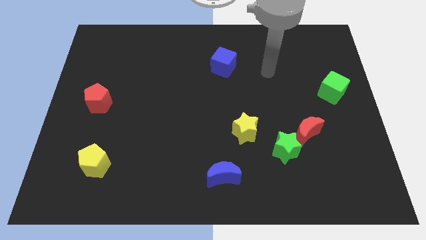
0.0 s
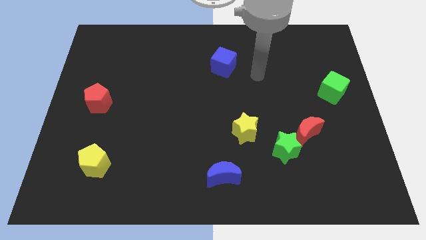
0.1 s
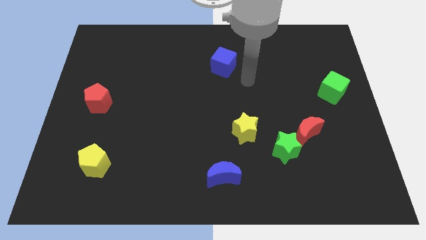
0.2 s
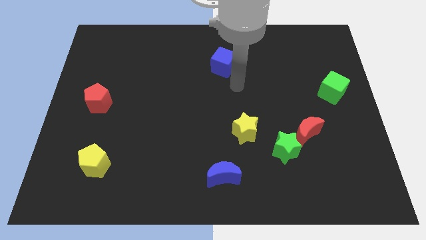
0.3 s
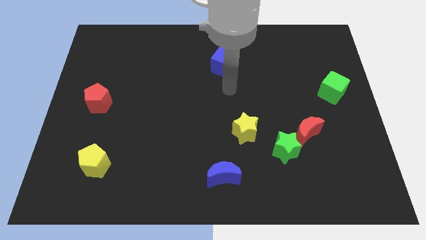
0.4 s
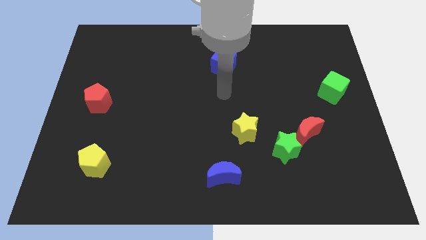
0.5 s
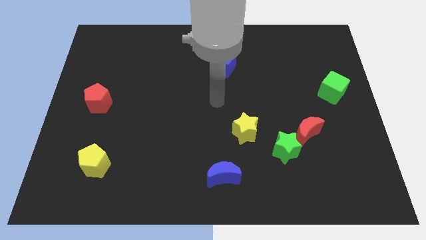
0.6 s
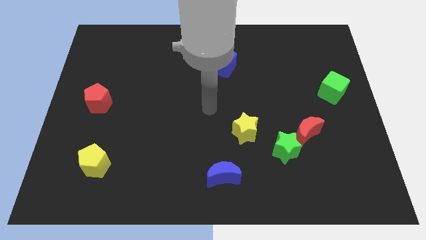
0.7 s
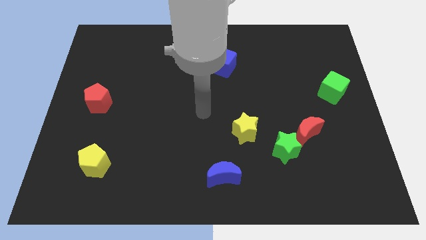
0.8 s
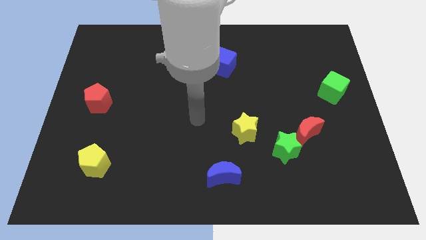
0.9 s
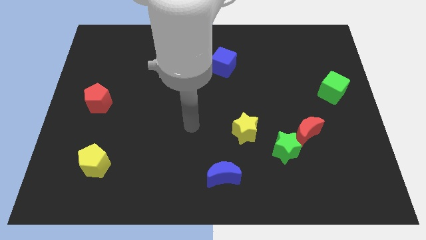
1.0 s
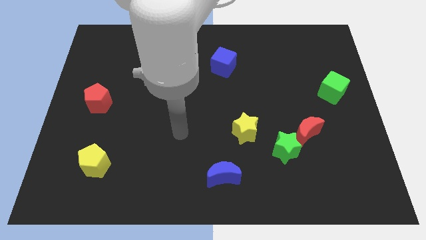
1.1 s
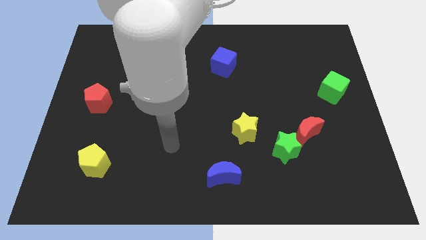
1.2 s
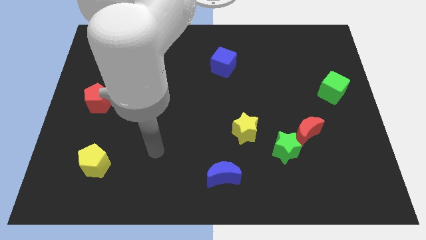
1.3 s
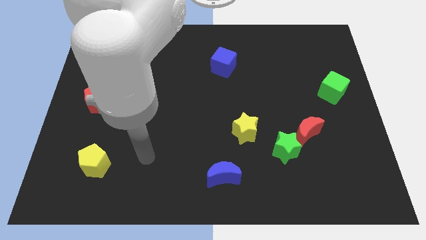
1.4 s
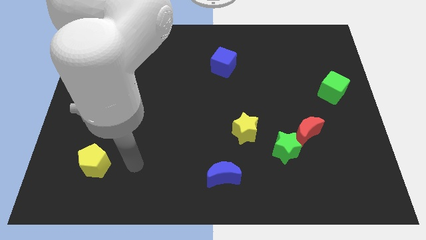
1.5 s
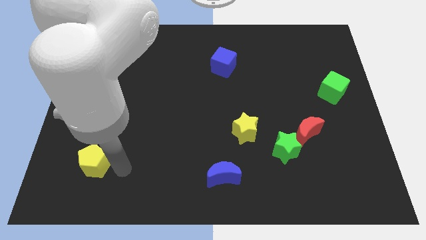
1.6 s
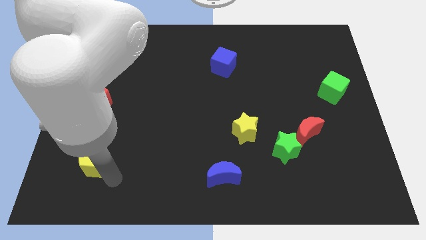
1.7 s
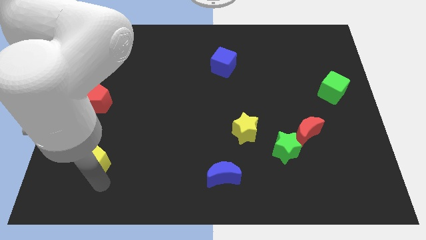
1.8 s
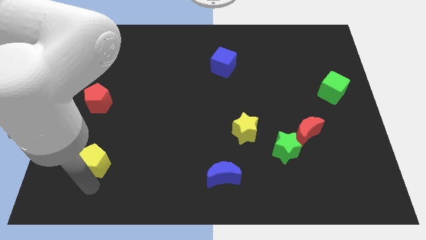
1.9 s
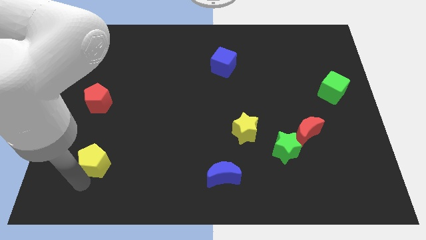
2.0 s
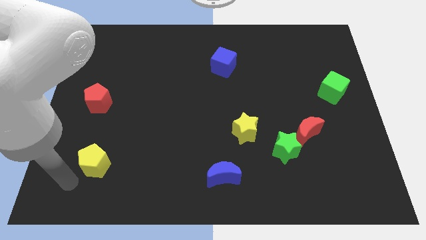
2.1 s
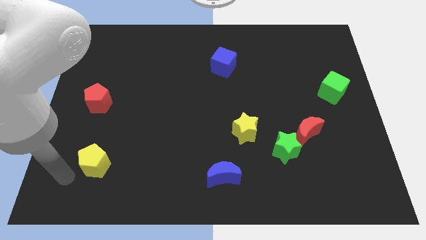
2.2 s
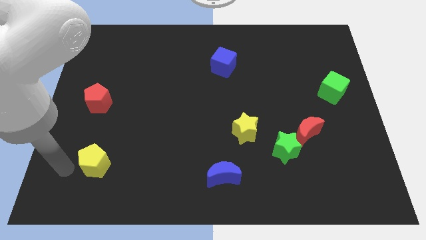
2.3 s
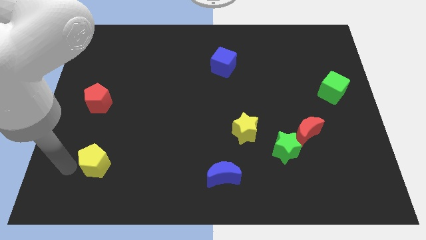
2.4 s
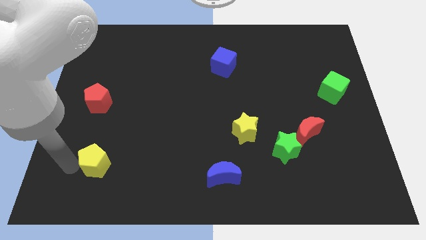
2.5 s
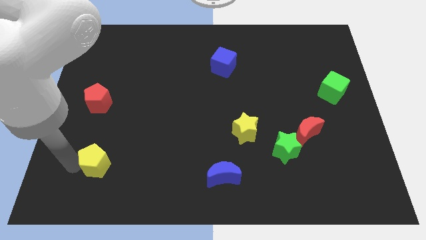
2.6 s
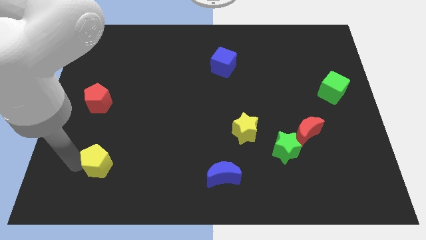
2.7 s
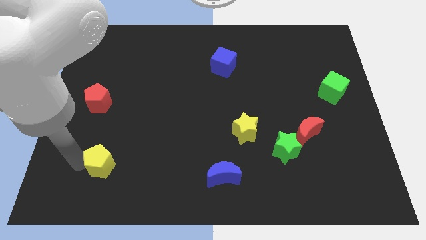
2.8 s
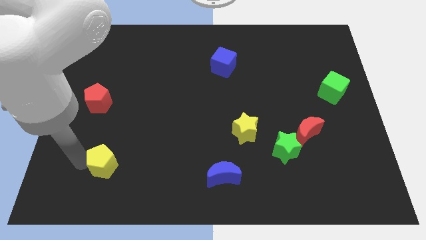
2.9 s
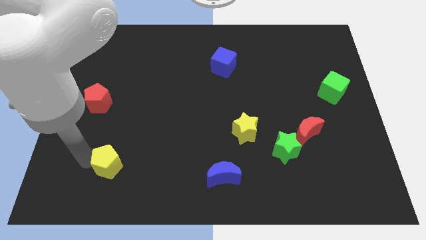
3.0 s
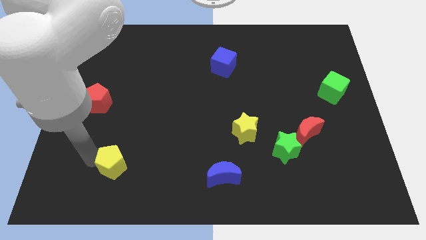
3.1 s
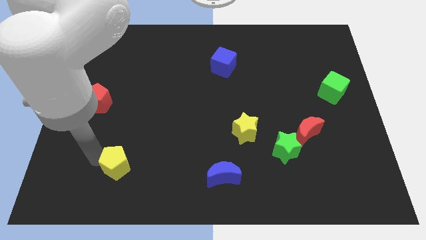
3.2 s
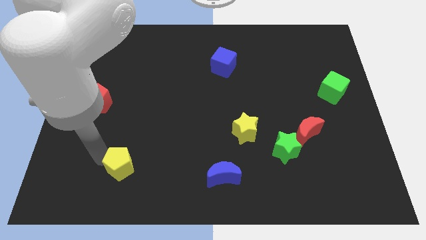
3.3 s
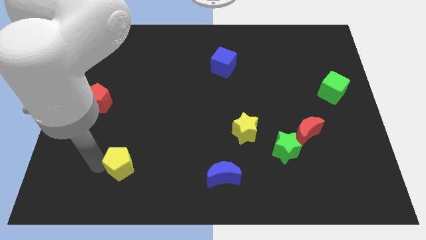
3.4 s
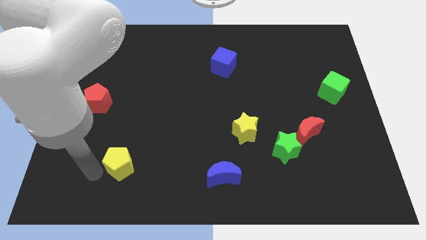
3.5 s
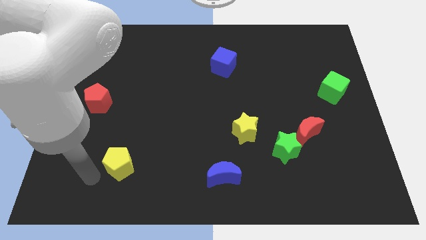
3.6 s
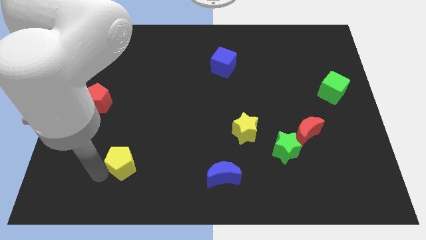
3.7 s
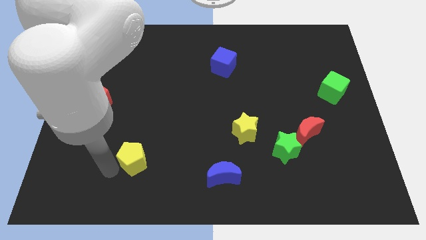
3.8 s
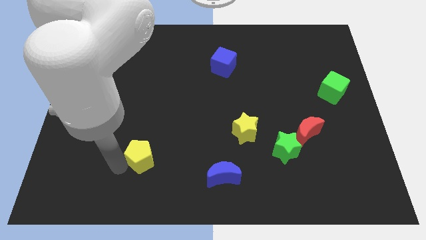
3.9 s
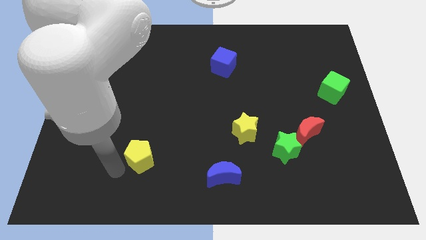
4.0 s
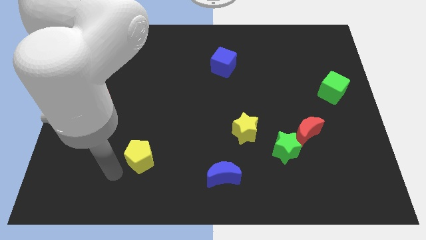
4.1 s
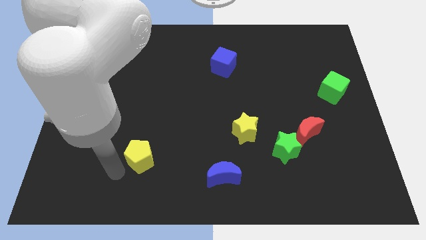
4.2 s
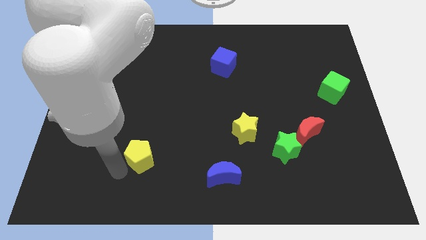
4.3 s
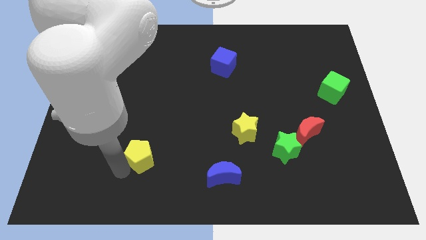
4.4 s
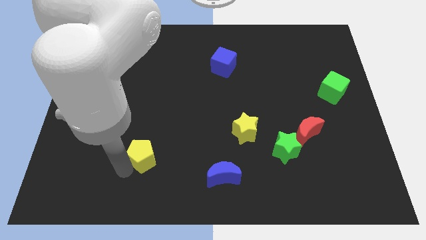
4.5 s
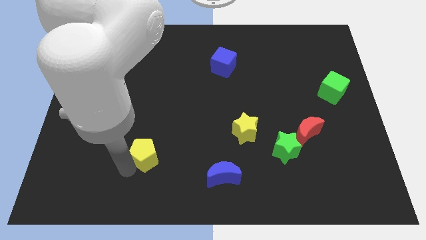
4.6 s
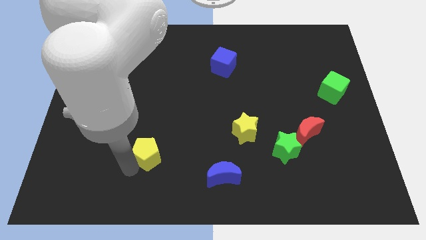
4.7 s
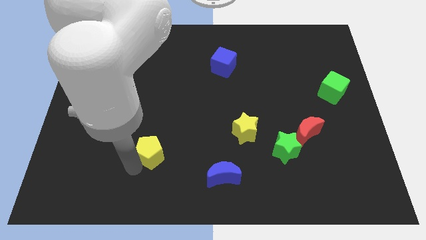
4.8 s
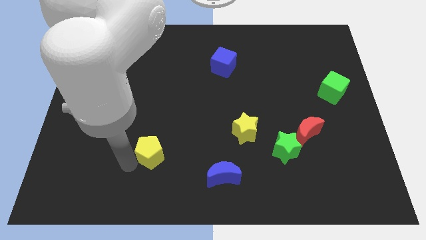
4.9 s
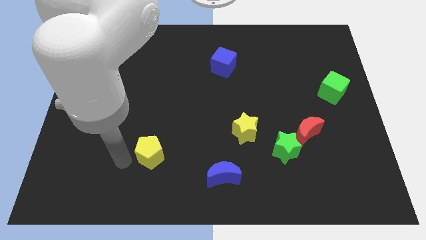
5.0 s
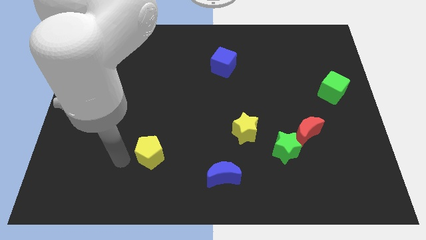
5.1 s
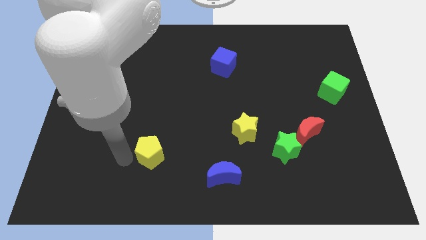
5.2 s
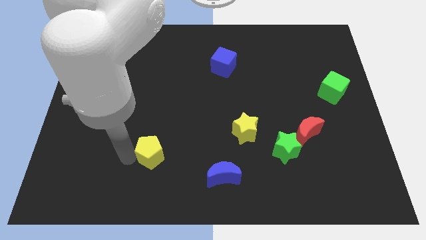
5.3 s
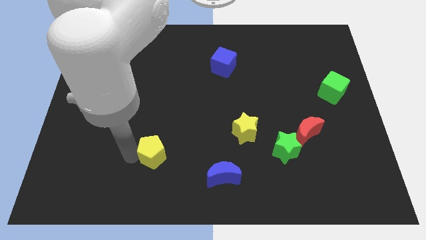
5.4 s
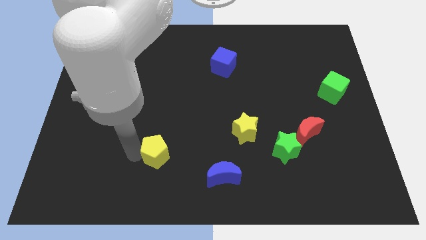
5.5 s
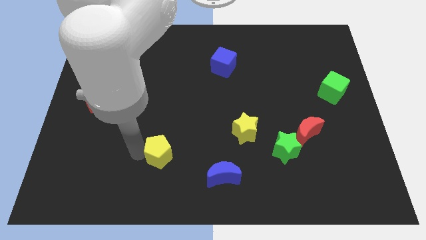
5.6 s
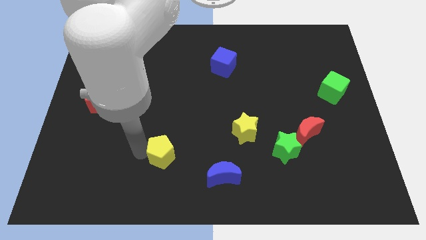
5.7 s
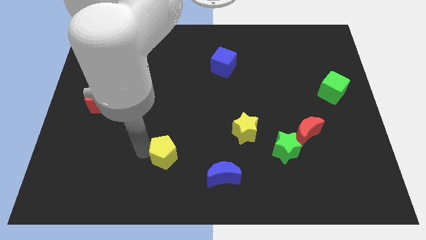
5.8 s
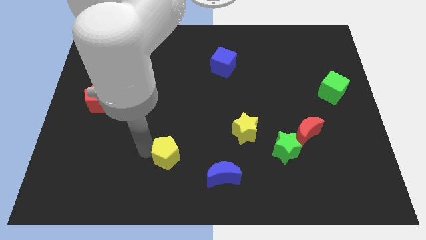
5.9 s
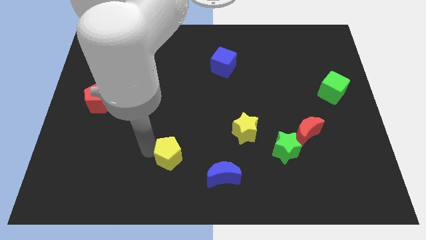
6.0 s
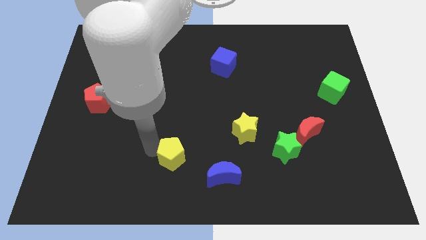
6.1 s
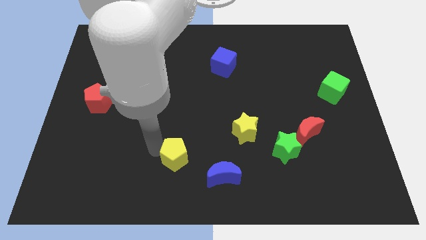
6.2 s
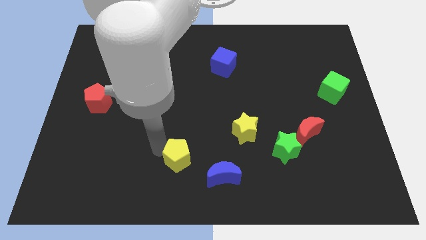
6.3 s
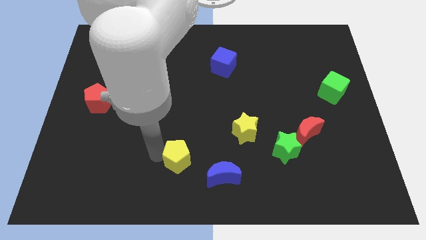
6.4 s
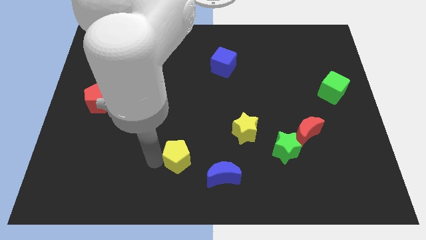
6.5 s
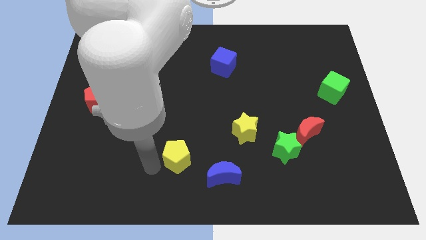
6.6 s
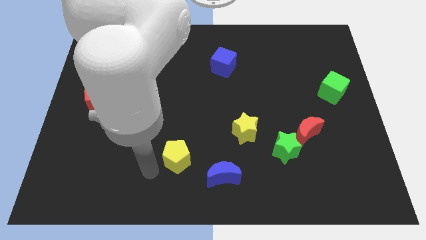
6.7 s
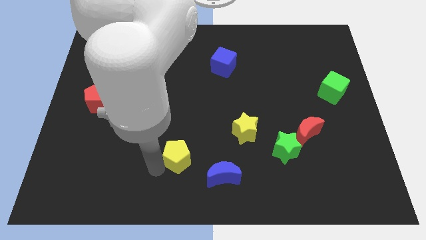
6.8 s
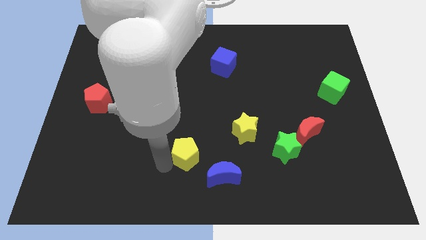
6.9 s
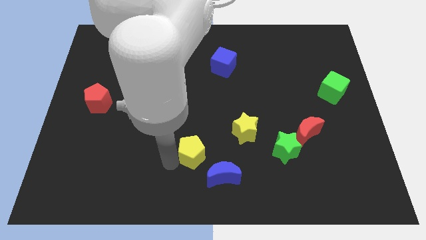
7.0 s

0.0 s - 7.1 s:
move the yellow pentagon to the right

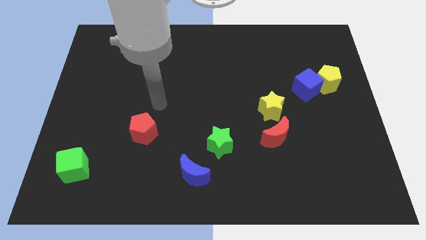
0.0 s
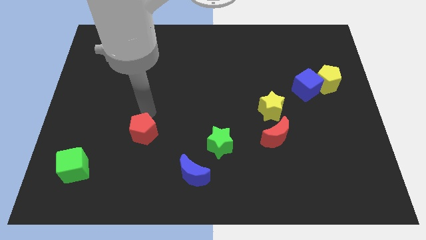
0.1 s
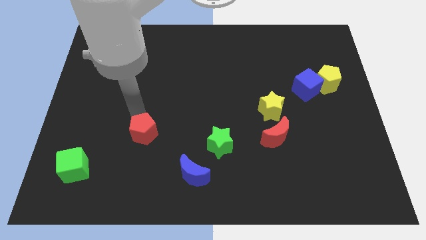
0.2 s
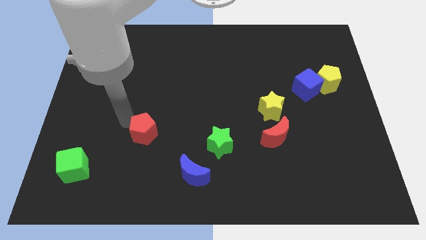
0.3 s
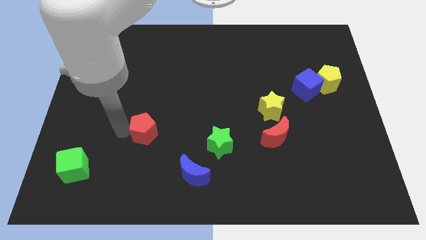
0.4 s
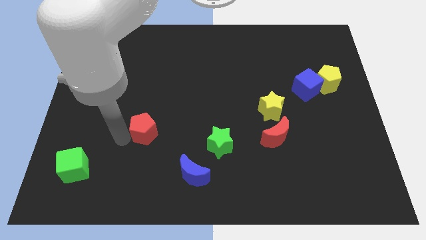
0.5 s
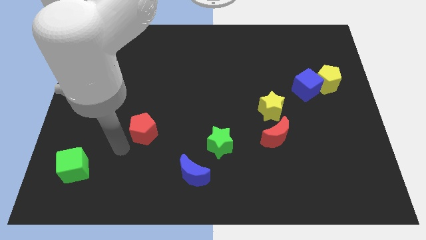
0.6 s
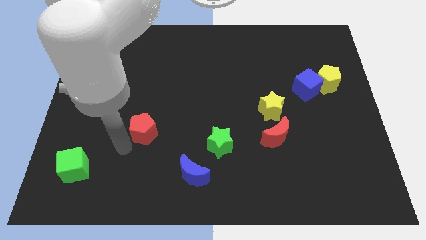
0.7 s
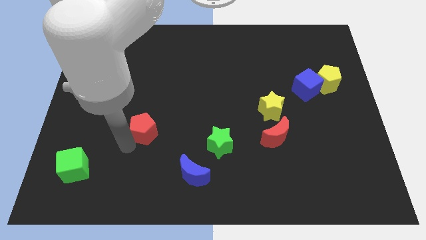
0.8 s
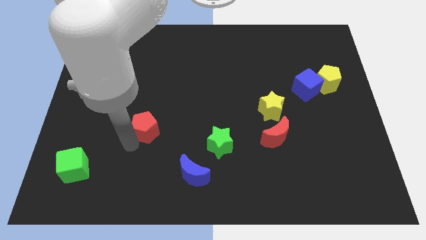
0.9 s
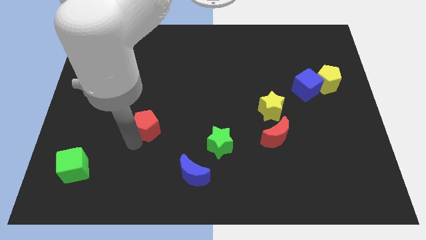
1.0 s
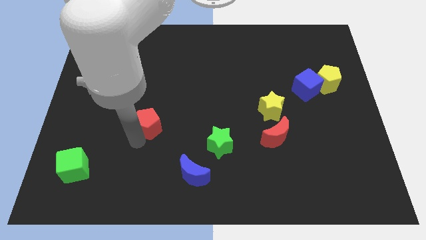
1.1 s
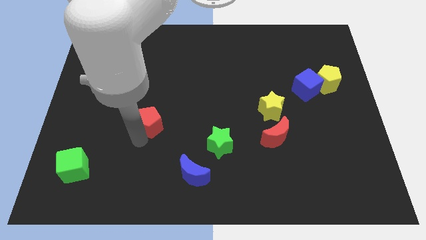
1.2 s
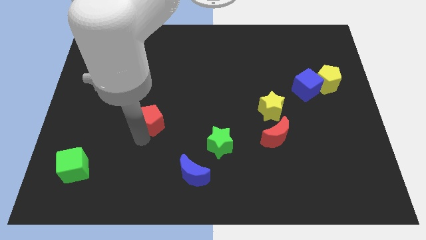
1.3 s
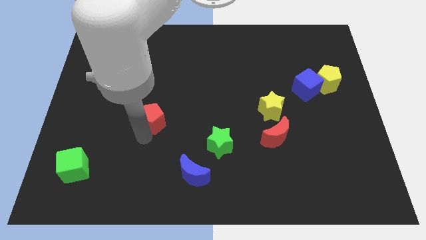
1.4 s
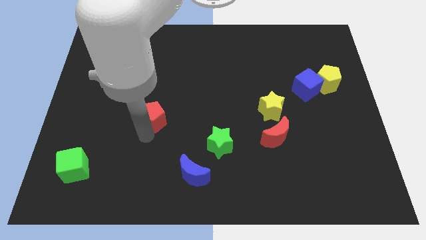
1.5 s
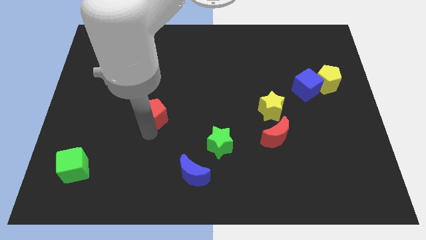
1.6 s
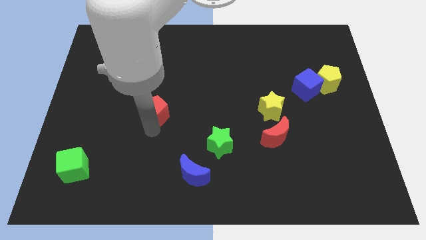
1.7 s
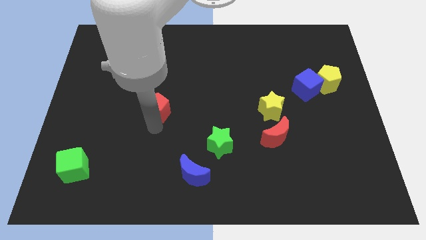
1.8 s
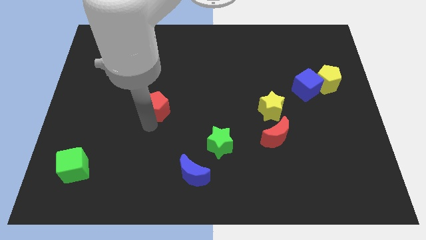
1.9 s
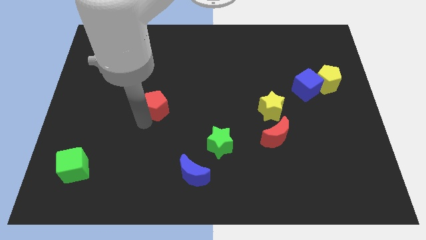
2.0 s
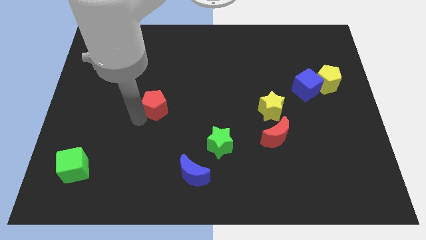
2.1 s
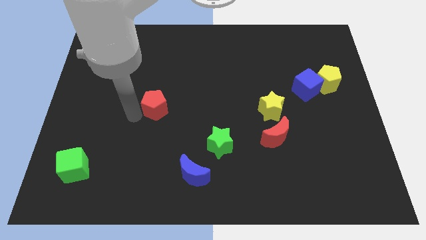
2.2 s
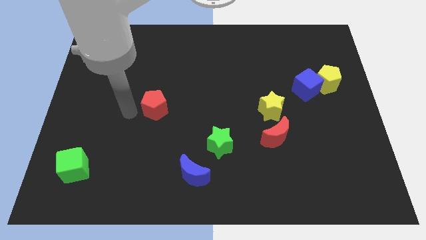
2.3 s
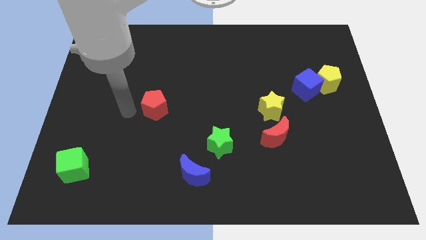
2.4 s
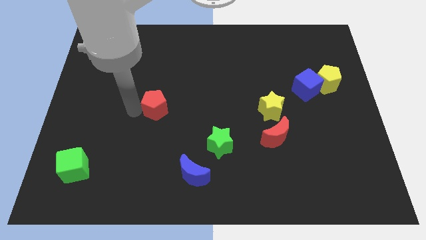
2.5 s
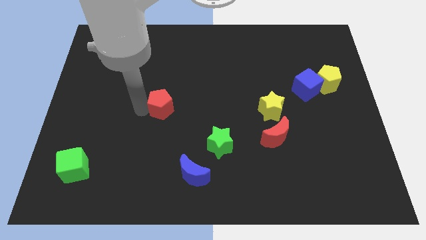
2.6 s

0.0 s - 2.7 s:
slightly move the red pentagon upwards and then to the right
